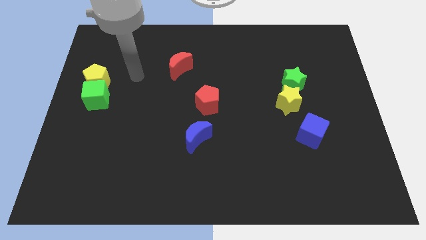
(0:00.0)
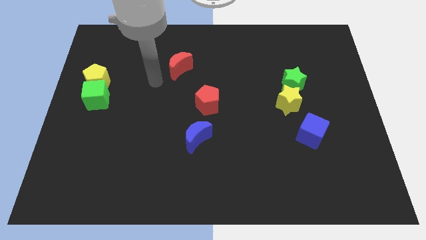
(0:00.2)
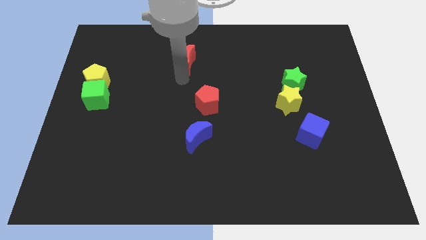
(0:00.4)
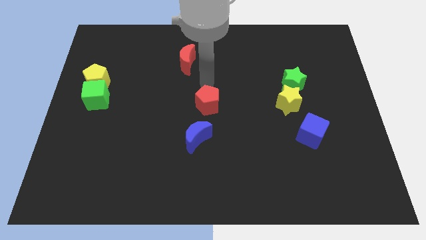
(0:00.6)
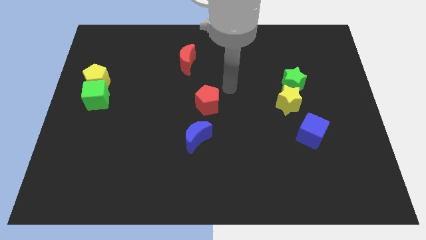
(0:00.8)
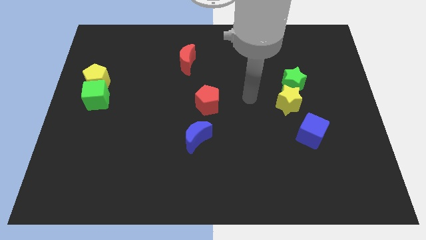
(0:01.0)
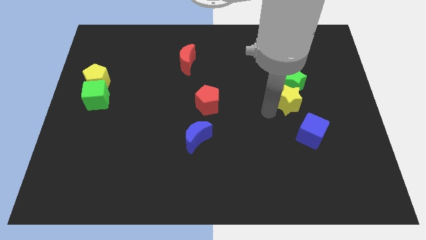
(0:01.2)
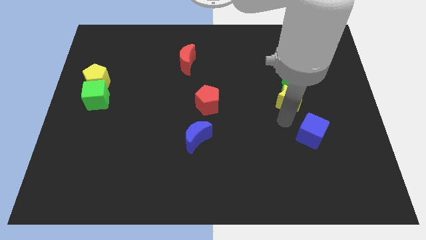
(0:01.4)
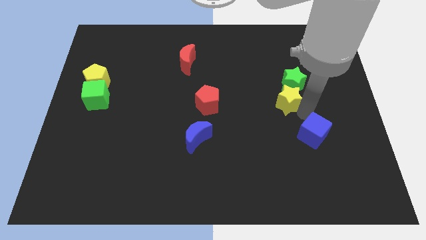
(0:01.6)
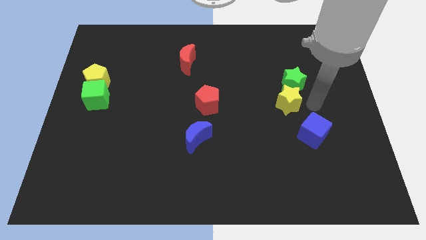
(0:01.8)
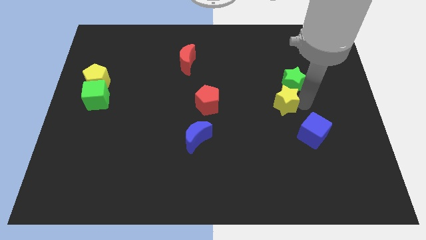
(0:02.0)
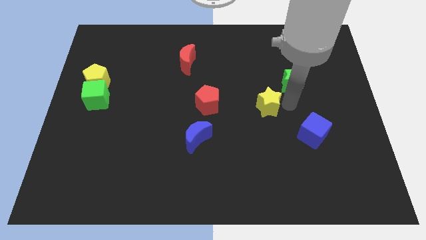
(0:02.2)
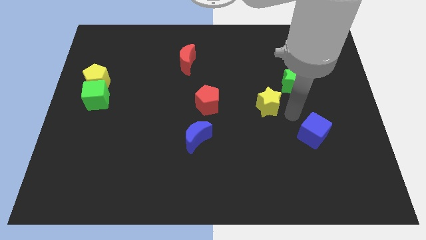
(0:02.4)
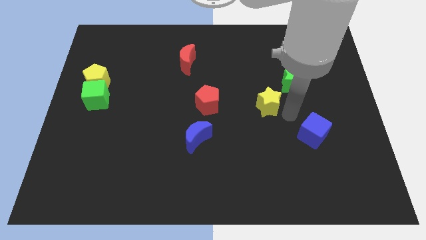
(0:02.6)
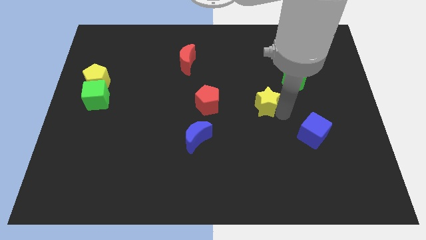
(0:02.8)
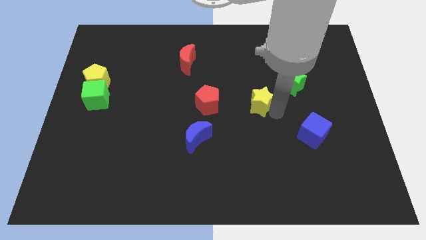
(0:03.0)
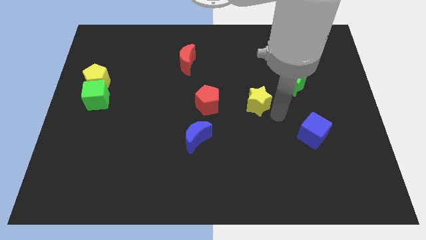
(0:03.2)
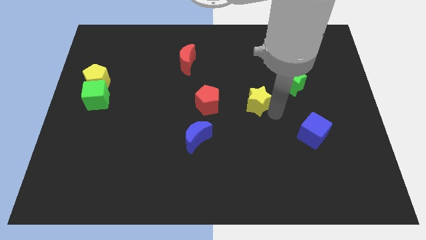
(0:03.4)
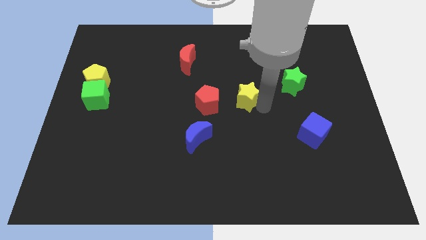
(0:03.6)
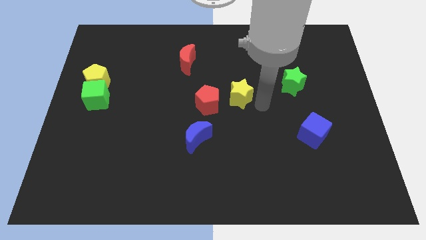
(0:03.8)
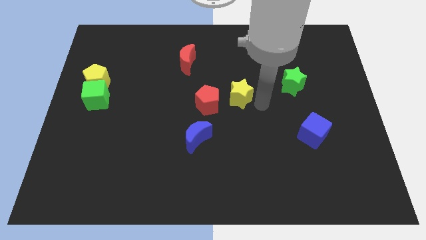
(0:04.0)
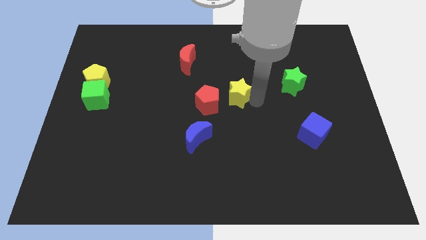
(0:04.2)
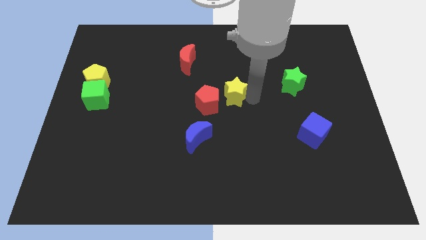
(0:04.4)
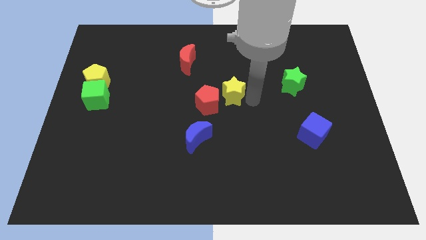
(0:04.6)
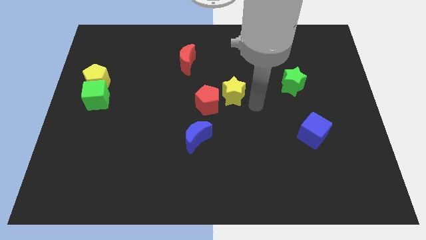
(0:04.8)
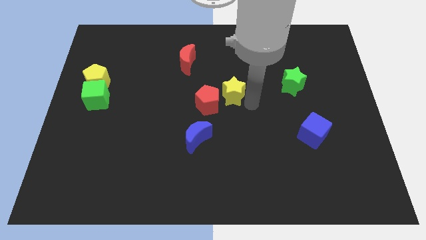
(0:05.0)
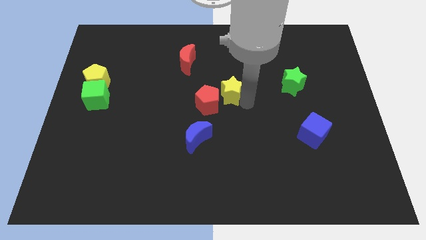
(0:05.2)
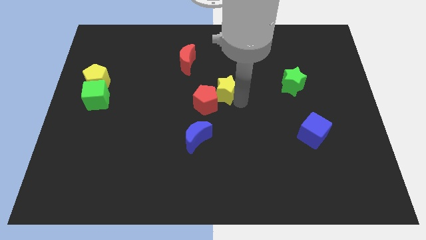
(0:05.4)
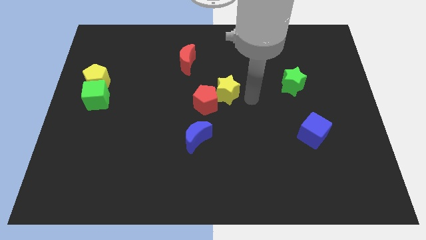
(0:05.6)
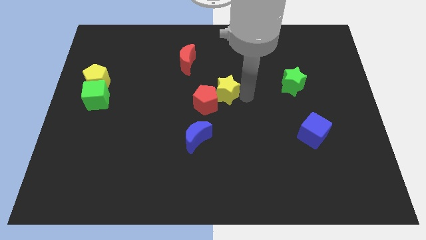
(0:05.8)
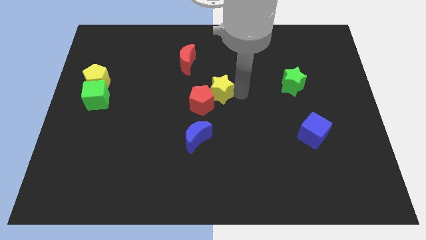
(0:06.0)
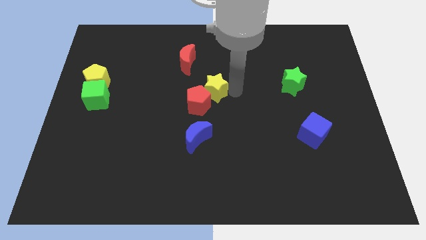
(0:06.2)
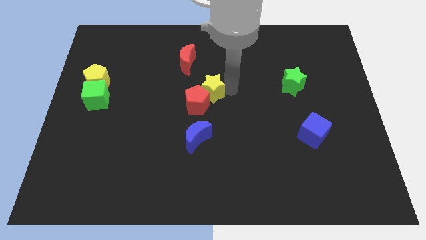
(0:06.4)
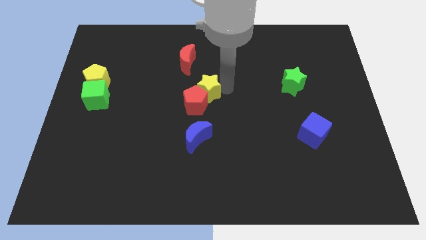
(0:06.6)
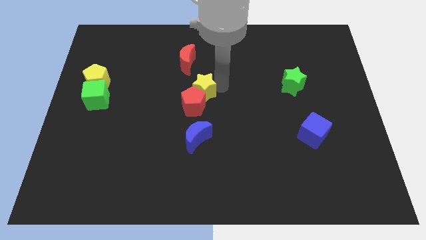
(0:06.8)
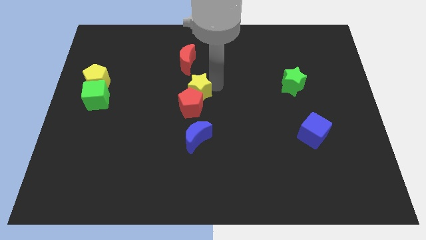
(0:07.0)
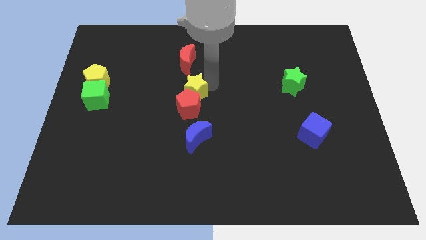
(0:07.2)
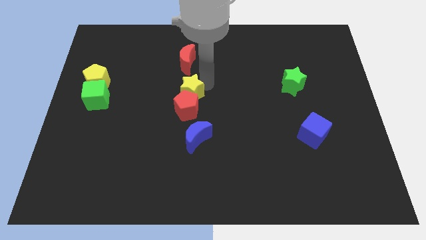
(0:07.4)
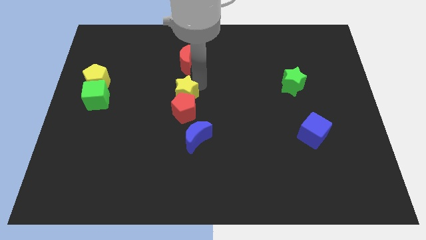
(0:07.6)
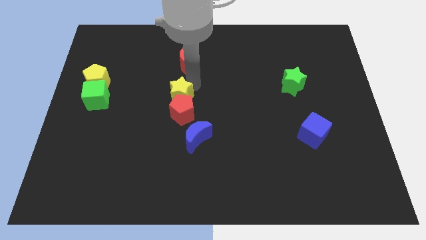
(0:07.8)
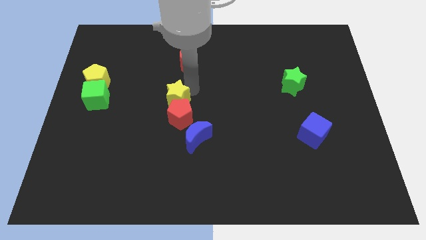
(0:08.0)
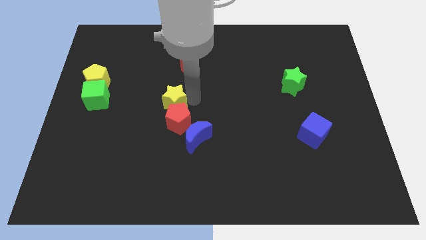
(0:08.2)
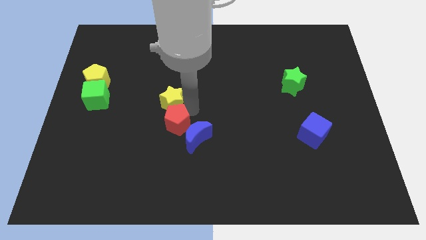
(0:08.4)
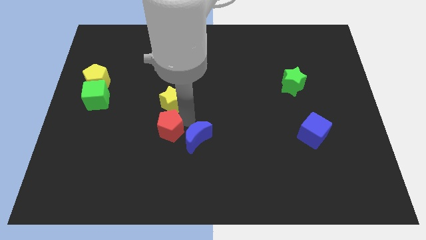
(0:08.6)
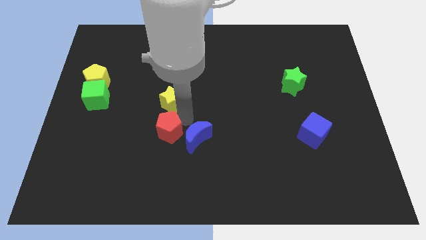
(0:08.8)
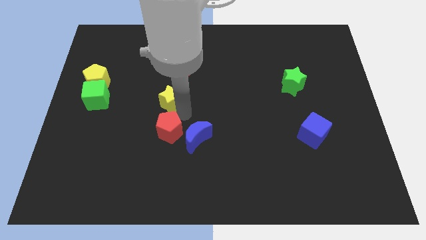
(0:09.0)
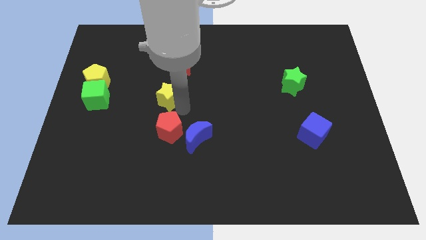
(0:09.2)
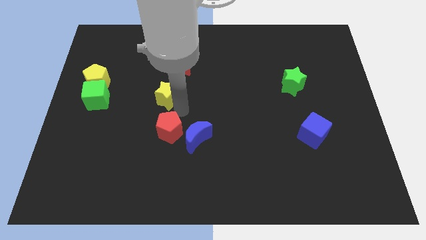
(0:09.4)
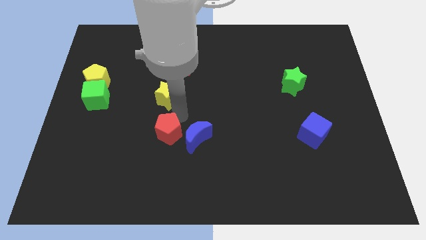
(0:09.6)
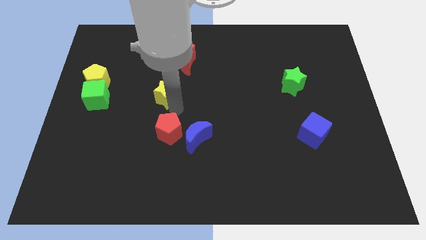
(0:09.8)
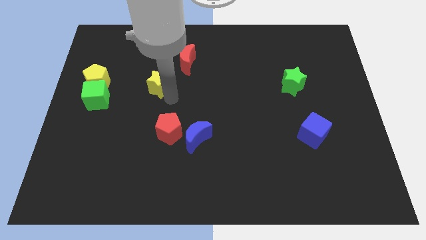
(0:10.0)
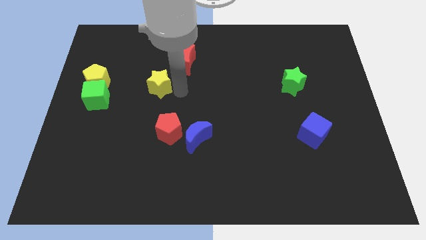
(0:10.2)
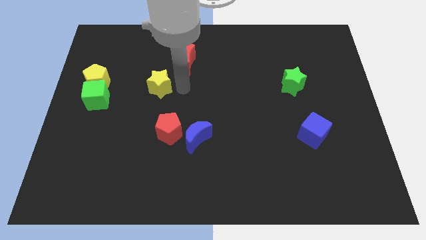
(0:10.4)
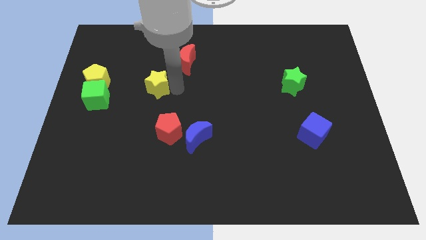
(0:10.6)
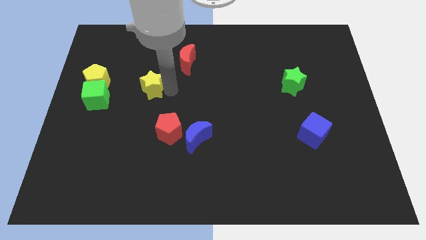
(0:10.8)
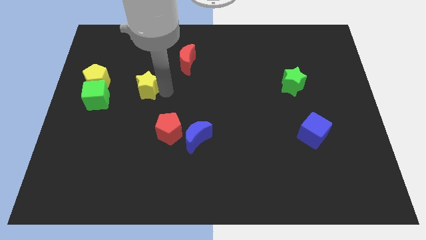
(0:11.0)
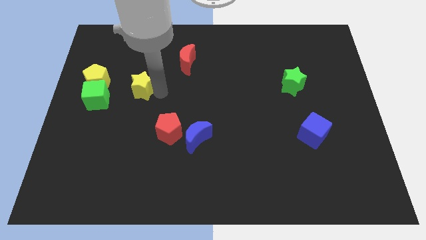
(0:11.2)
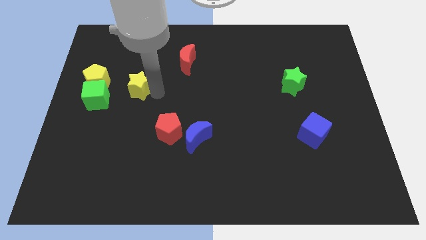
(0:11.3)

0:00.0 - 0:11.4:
push the yellow star diagonally up and to the right of the green cube

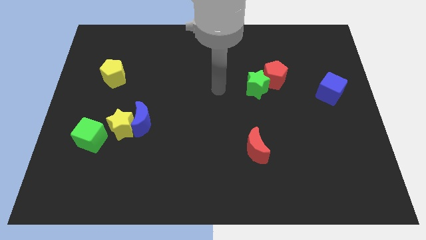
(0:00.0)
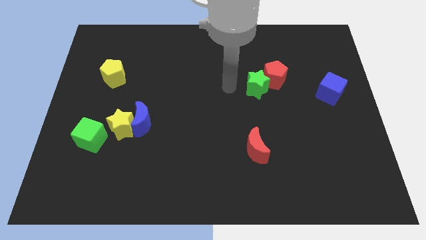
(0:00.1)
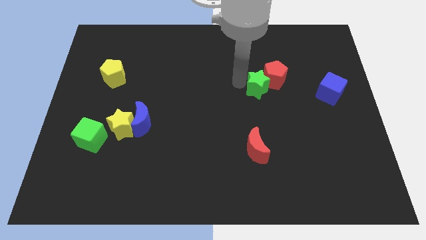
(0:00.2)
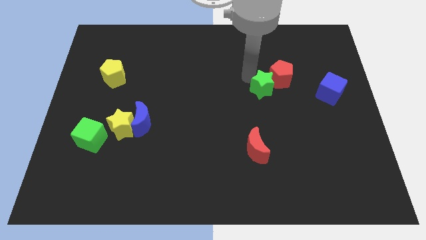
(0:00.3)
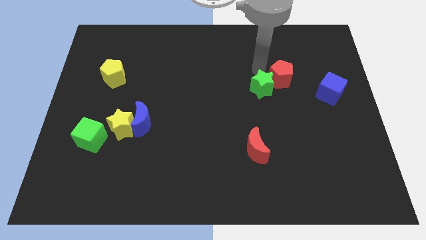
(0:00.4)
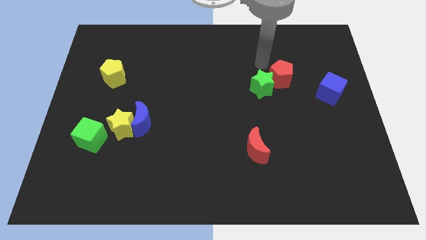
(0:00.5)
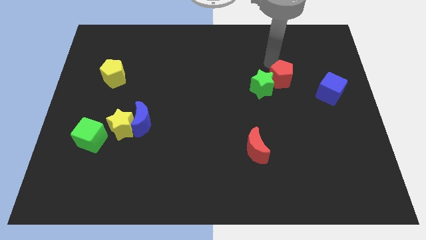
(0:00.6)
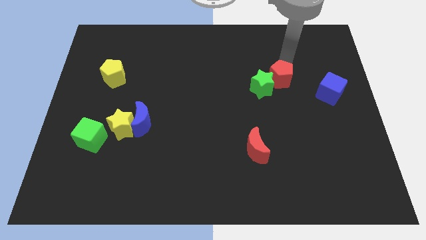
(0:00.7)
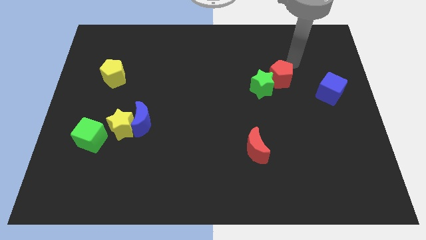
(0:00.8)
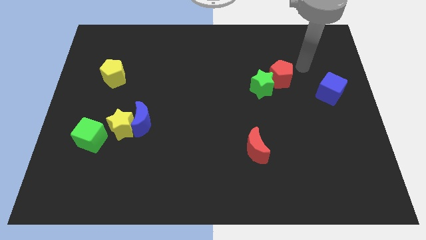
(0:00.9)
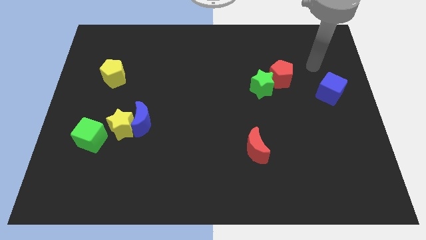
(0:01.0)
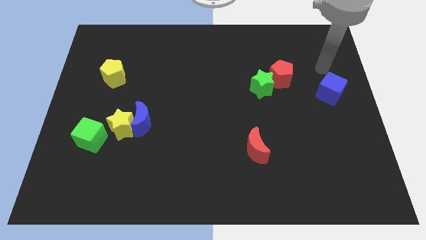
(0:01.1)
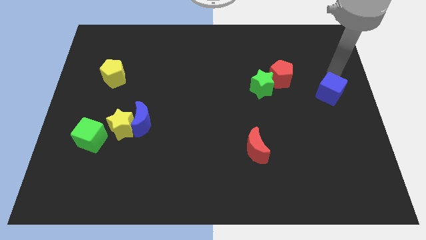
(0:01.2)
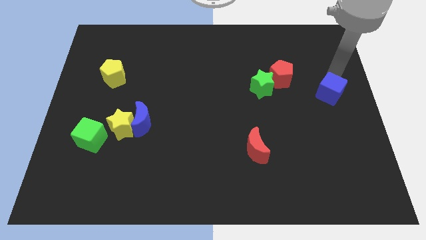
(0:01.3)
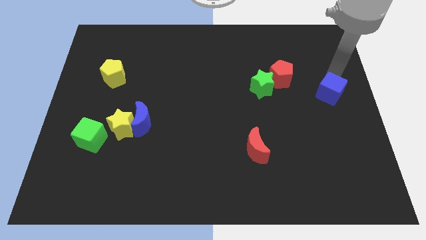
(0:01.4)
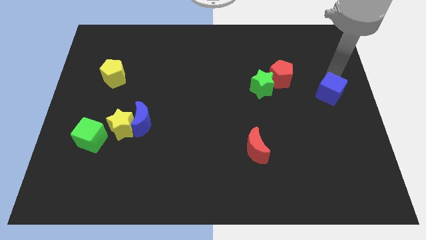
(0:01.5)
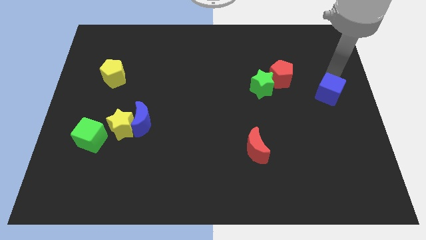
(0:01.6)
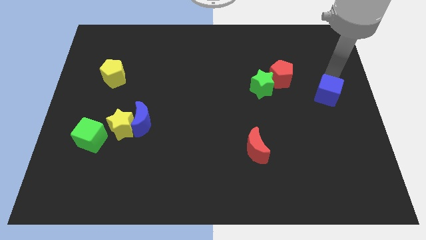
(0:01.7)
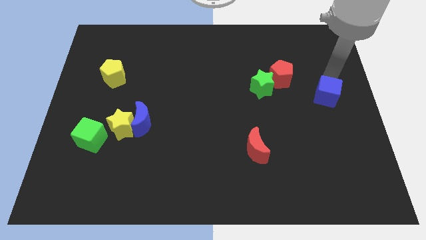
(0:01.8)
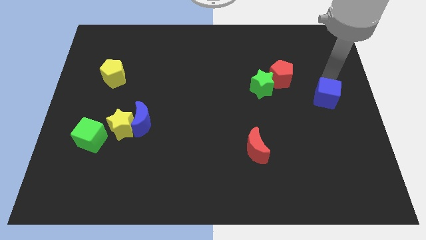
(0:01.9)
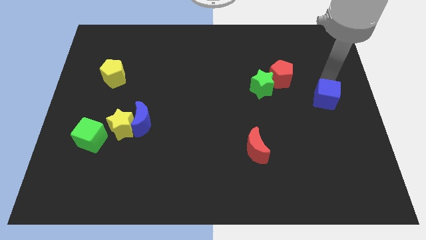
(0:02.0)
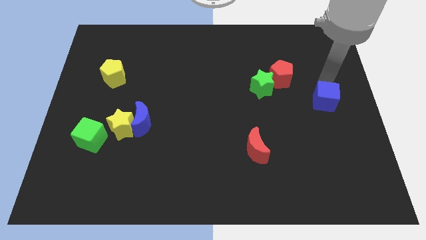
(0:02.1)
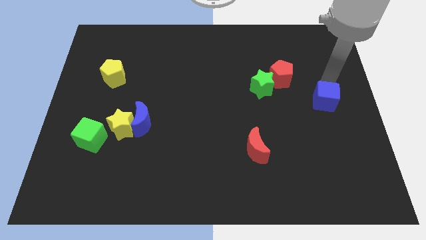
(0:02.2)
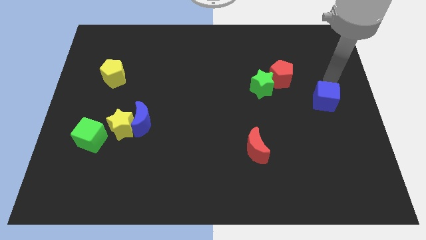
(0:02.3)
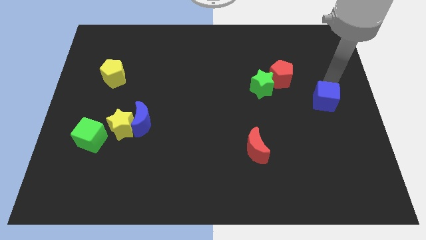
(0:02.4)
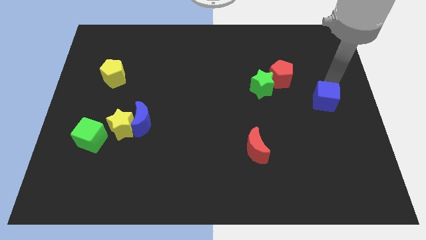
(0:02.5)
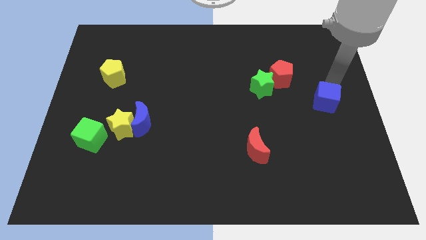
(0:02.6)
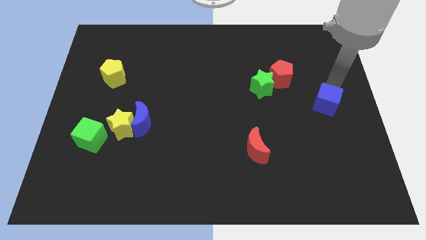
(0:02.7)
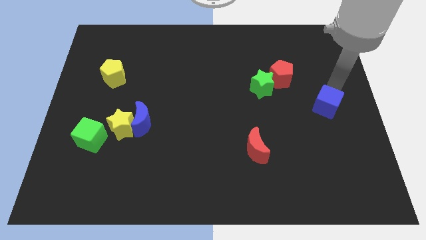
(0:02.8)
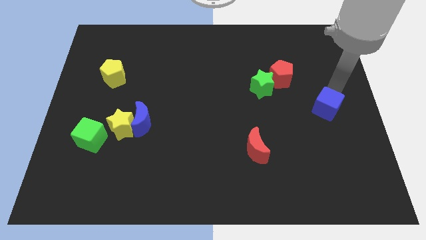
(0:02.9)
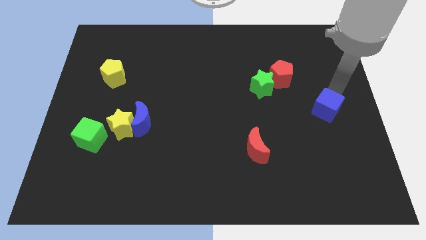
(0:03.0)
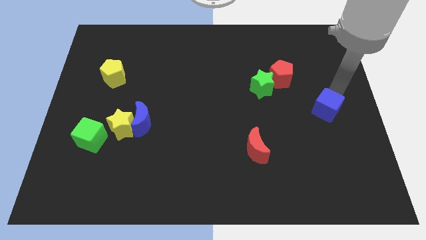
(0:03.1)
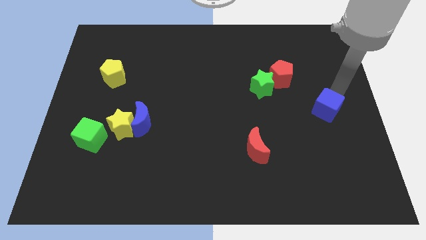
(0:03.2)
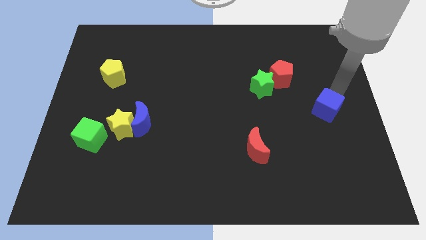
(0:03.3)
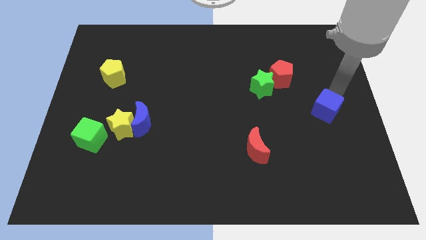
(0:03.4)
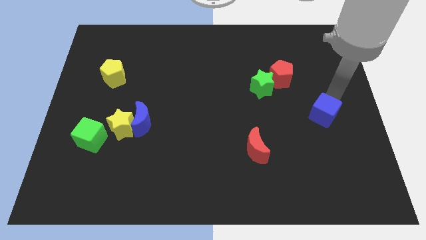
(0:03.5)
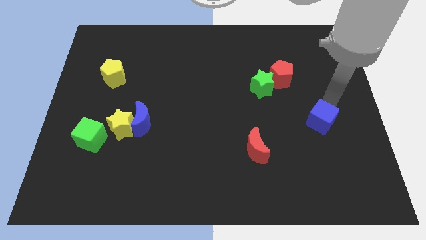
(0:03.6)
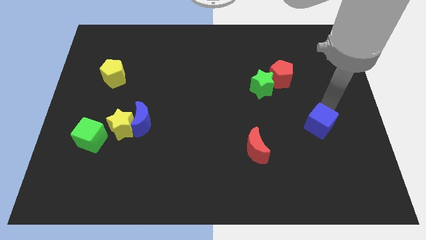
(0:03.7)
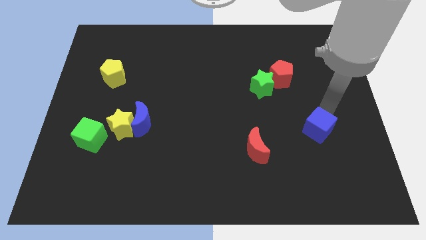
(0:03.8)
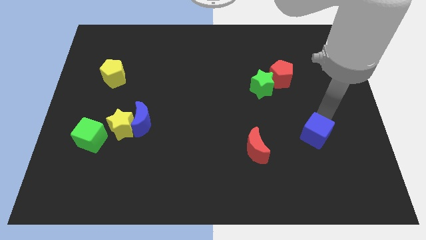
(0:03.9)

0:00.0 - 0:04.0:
put the blue cube right of the red moon
